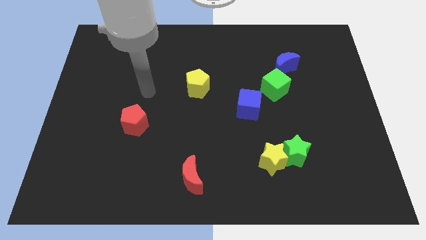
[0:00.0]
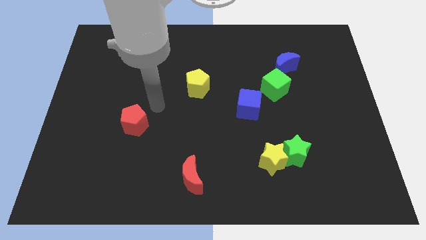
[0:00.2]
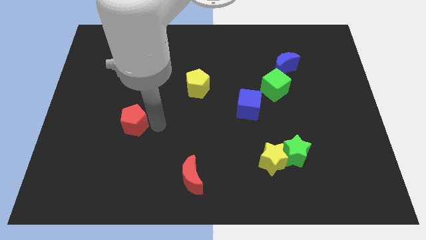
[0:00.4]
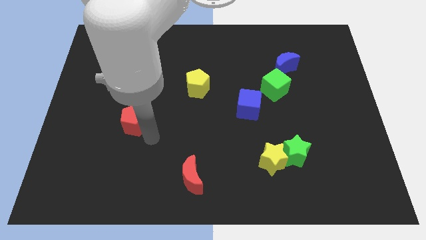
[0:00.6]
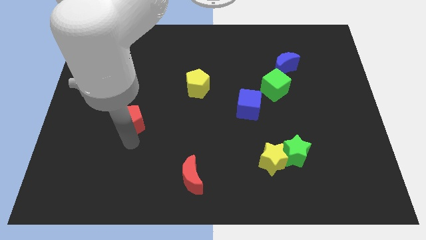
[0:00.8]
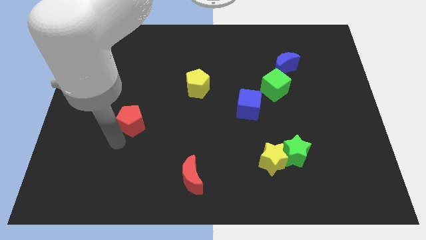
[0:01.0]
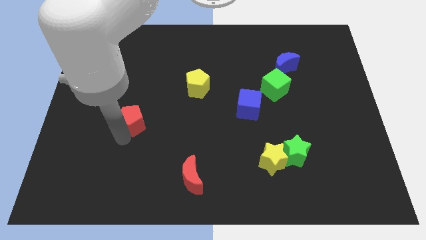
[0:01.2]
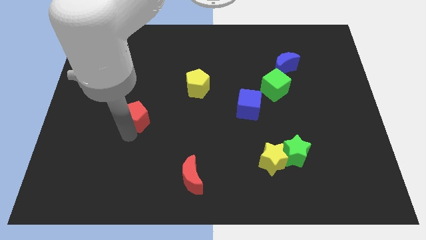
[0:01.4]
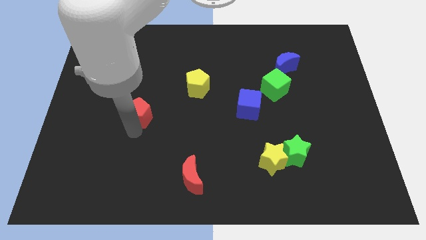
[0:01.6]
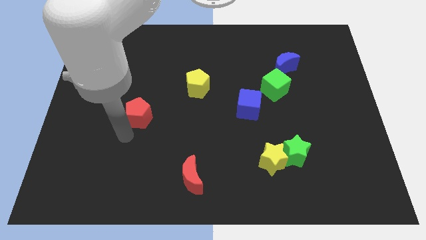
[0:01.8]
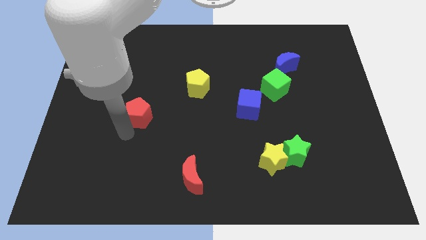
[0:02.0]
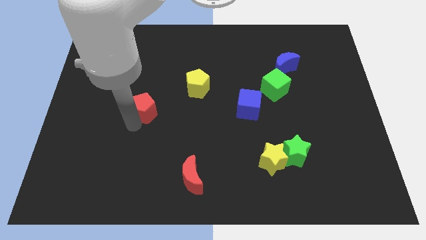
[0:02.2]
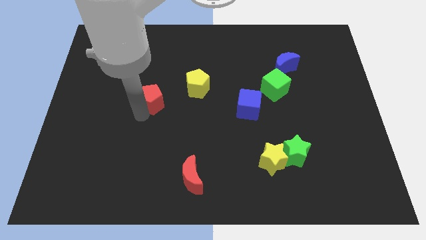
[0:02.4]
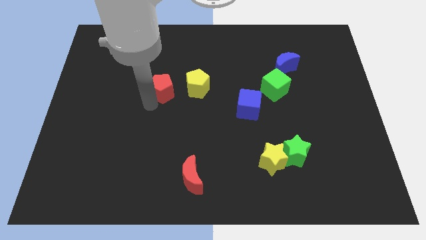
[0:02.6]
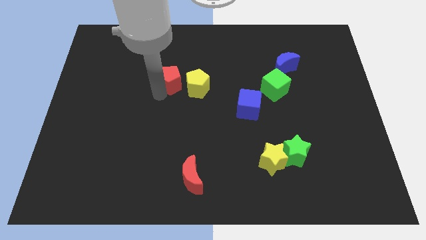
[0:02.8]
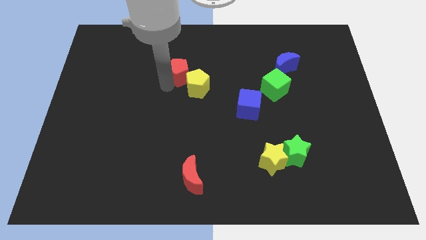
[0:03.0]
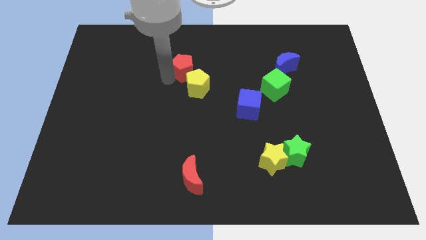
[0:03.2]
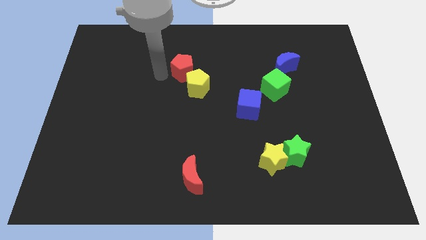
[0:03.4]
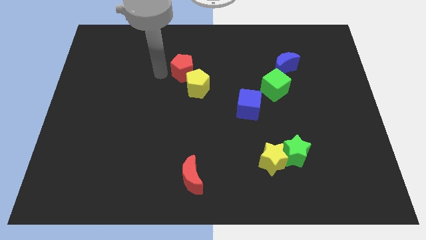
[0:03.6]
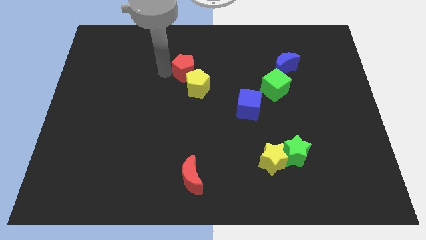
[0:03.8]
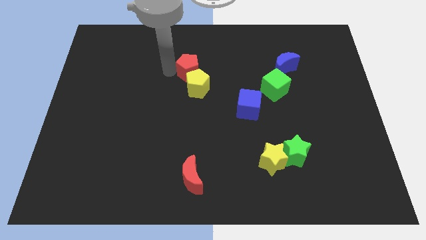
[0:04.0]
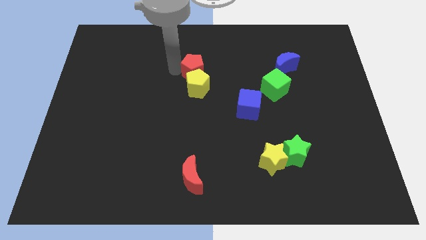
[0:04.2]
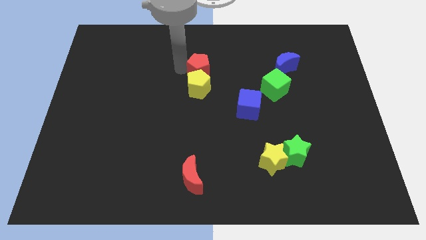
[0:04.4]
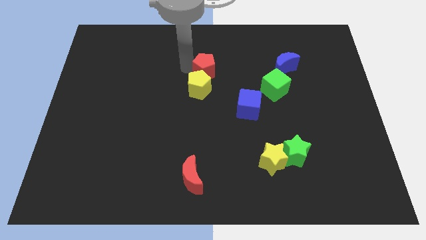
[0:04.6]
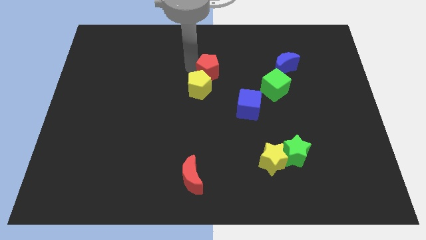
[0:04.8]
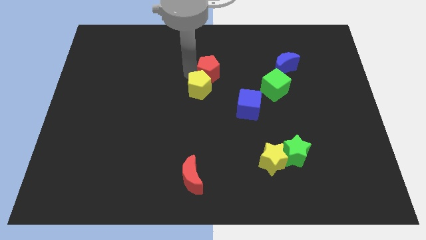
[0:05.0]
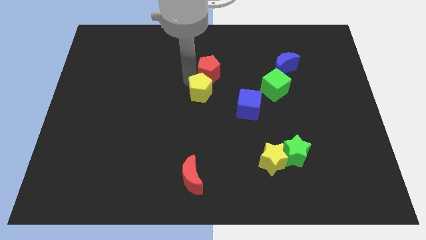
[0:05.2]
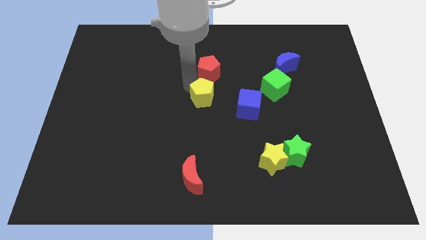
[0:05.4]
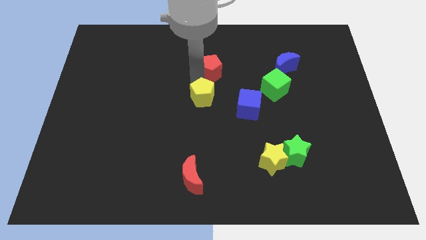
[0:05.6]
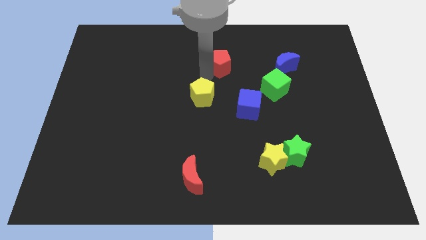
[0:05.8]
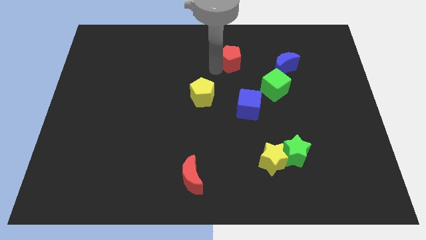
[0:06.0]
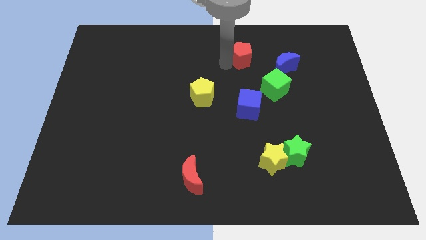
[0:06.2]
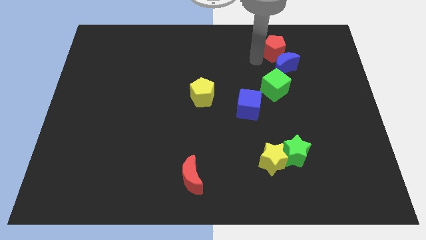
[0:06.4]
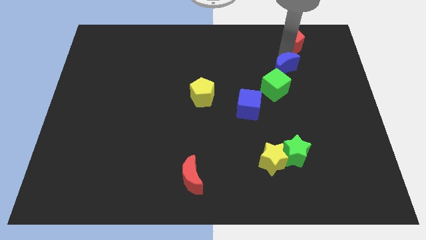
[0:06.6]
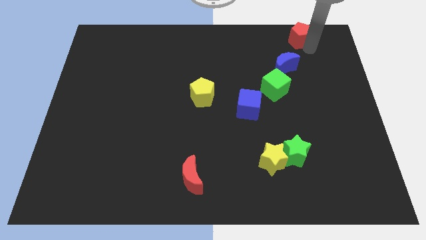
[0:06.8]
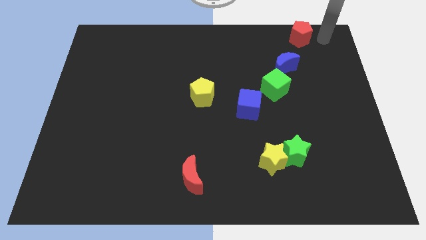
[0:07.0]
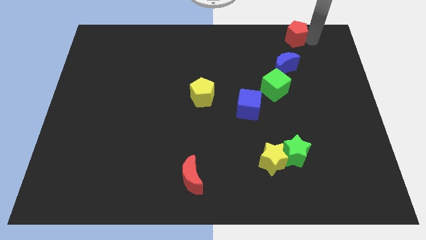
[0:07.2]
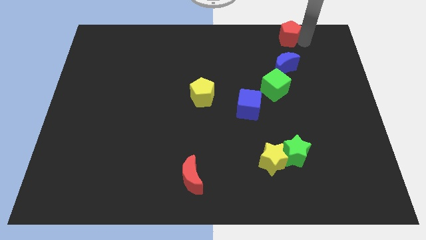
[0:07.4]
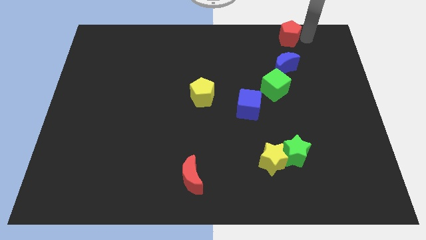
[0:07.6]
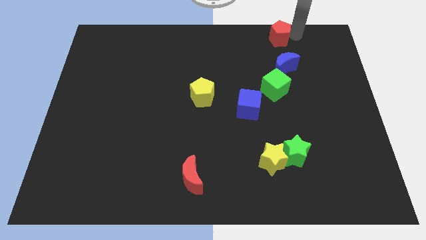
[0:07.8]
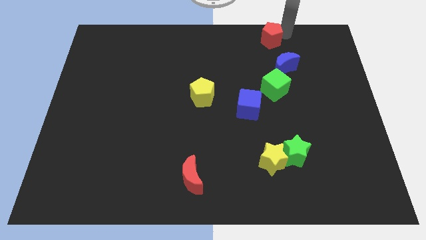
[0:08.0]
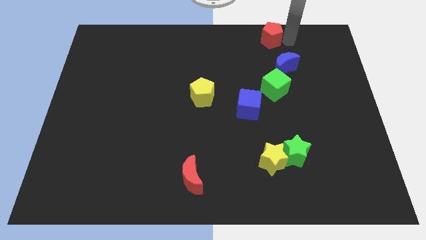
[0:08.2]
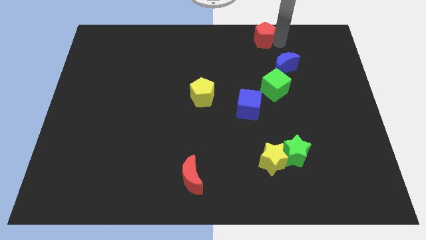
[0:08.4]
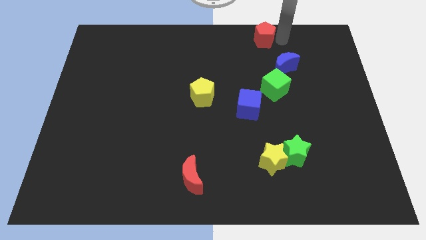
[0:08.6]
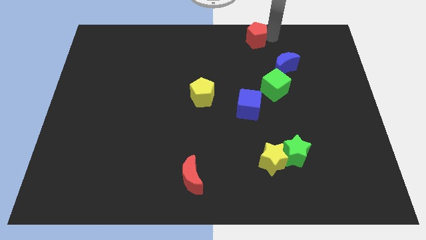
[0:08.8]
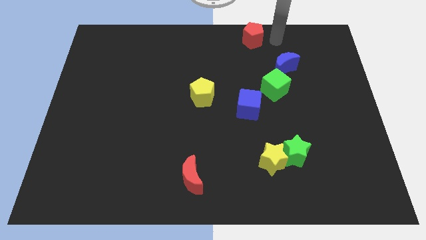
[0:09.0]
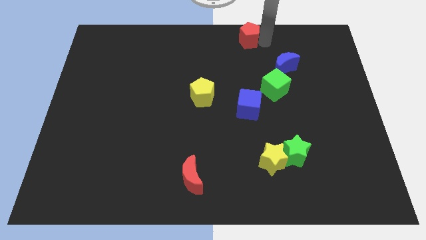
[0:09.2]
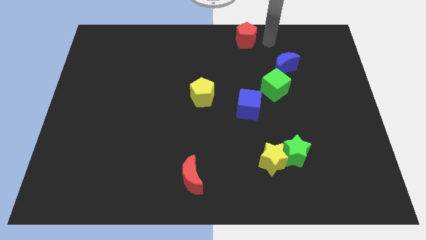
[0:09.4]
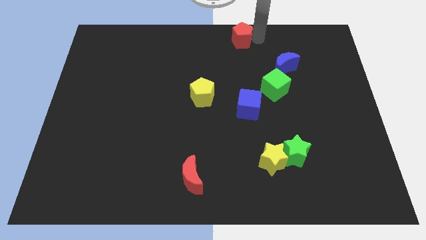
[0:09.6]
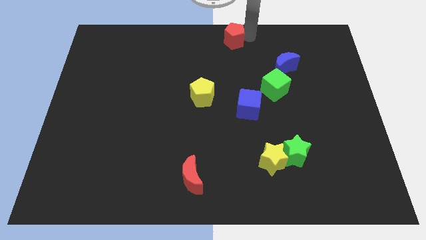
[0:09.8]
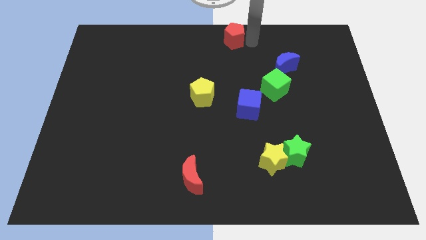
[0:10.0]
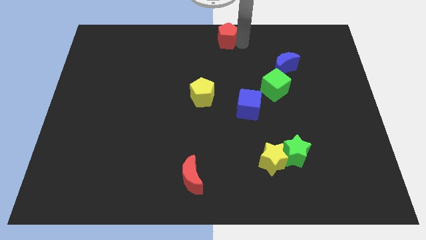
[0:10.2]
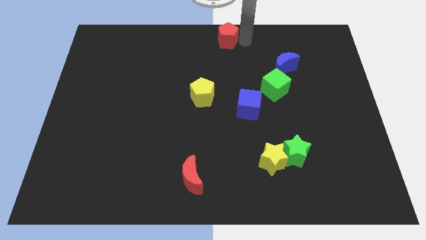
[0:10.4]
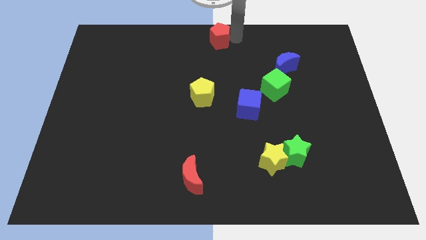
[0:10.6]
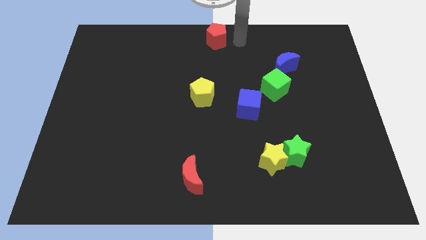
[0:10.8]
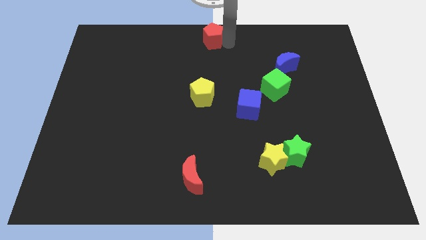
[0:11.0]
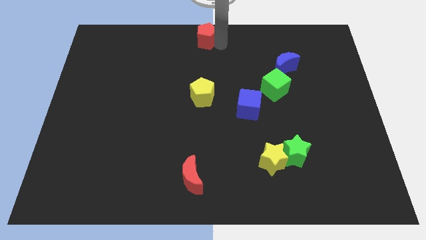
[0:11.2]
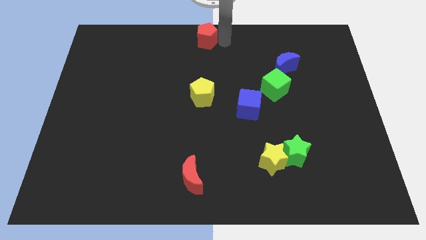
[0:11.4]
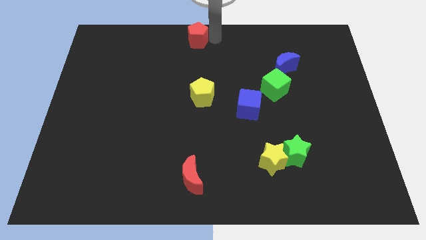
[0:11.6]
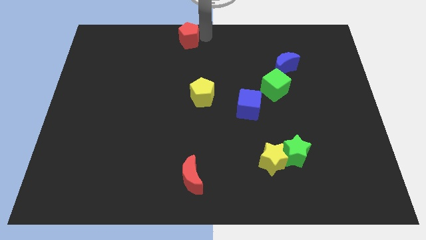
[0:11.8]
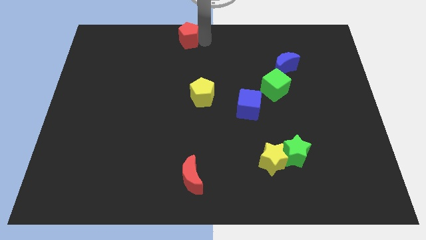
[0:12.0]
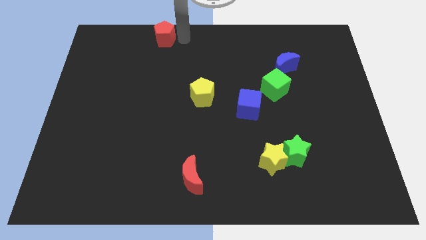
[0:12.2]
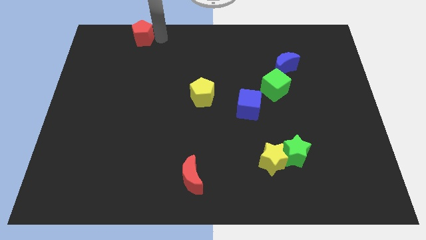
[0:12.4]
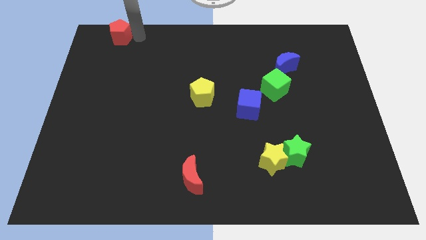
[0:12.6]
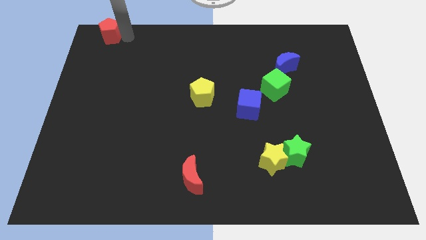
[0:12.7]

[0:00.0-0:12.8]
move the red pentagon to the upper left corner

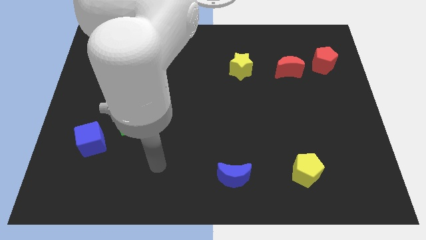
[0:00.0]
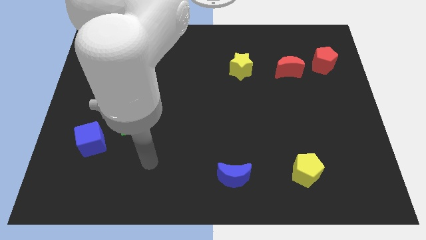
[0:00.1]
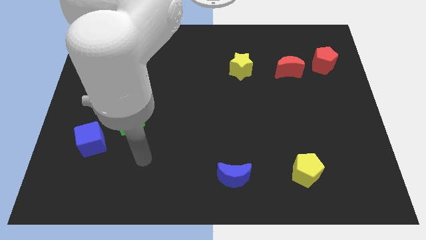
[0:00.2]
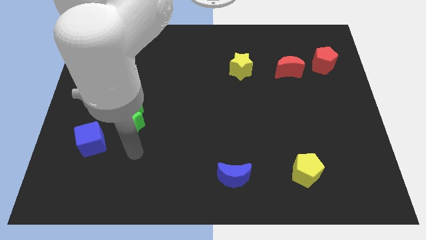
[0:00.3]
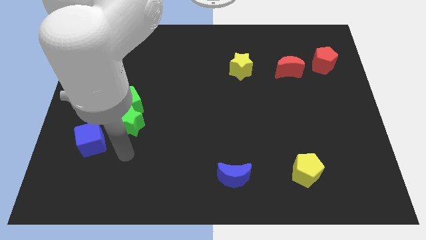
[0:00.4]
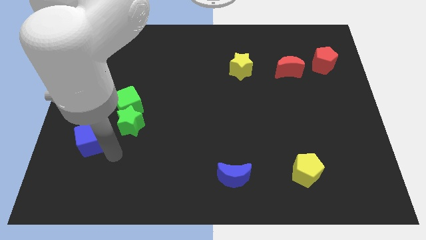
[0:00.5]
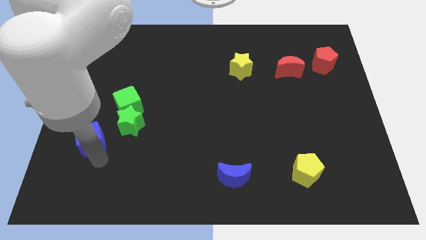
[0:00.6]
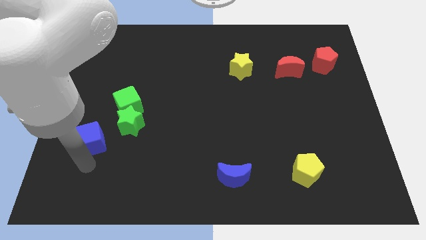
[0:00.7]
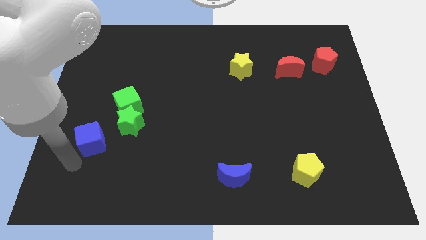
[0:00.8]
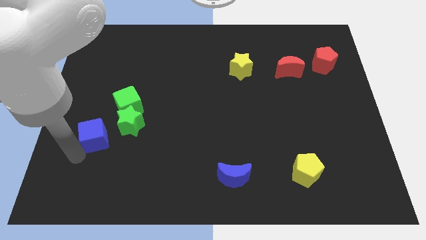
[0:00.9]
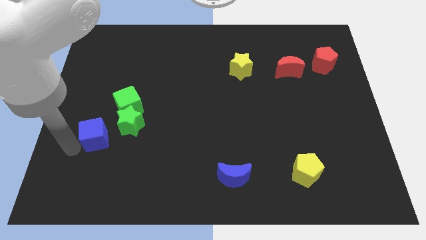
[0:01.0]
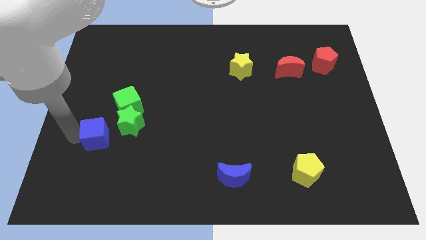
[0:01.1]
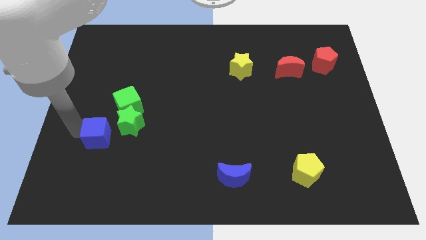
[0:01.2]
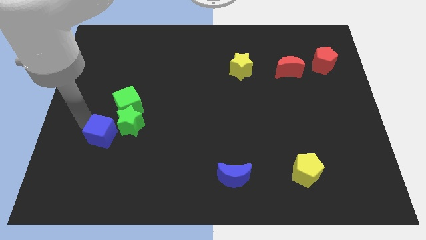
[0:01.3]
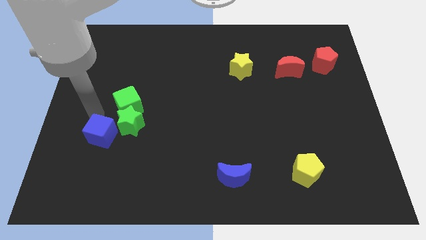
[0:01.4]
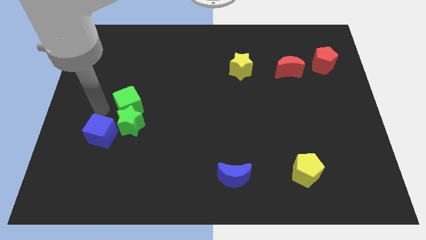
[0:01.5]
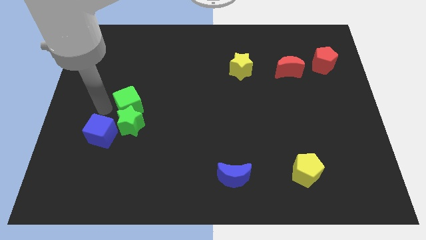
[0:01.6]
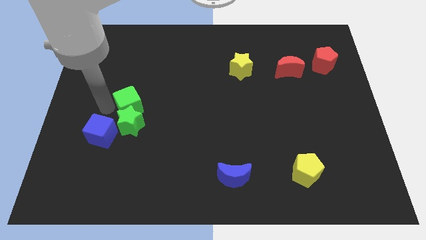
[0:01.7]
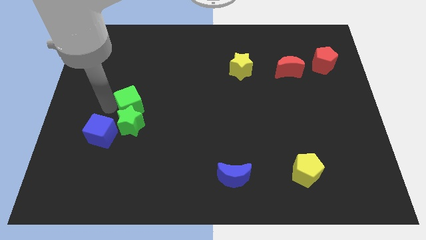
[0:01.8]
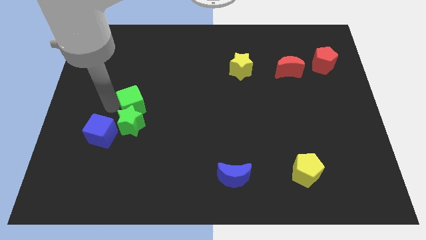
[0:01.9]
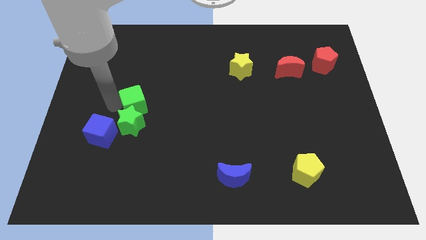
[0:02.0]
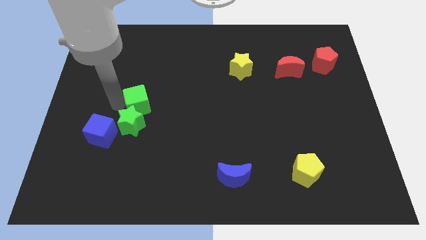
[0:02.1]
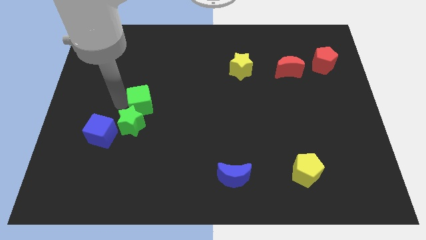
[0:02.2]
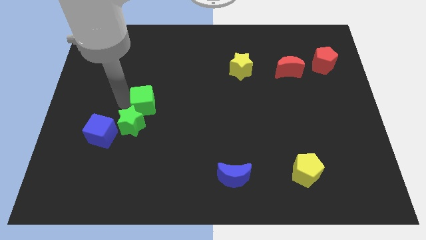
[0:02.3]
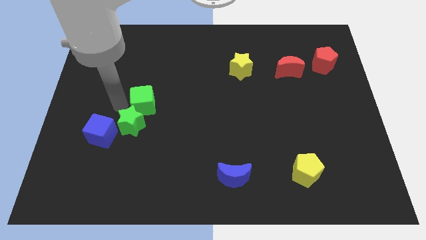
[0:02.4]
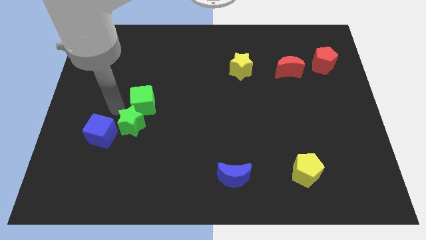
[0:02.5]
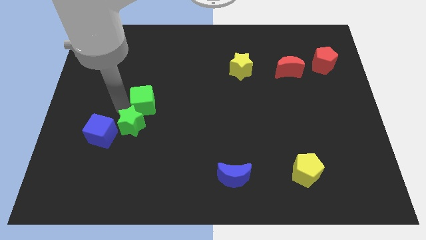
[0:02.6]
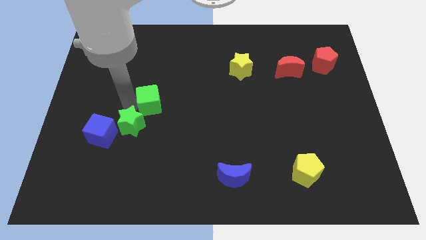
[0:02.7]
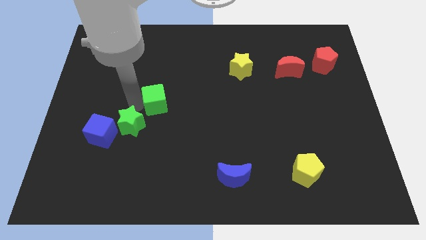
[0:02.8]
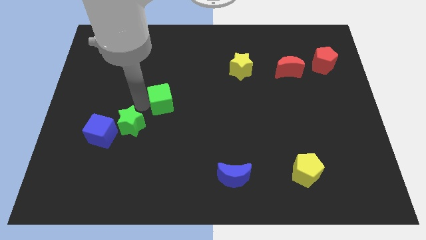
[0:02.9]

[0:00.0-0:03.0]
push the green cube to the center
